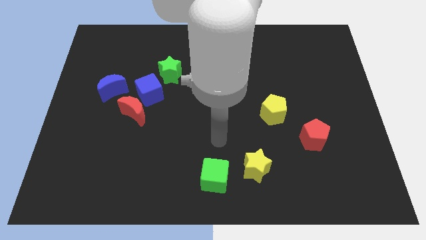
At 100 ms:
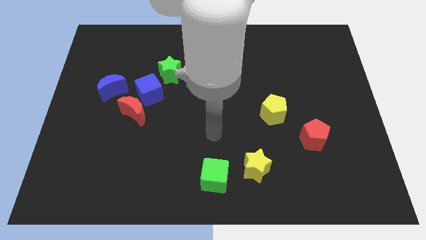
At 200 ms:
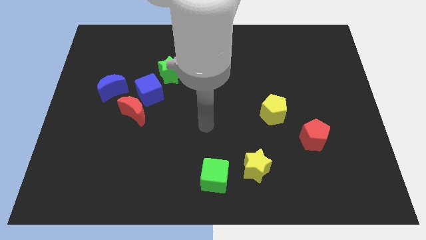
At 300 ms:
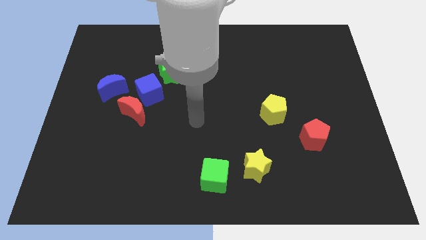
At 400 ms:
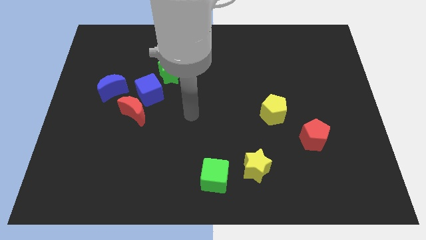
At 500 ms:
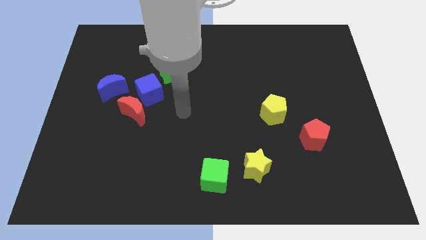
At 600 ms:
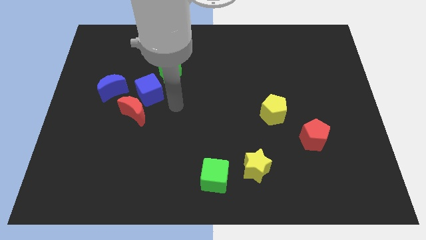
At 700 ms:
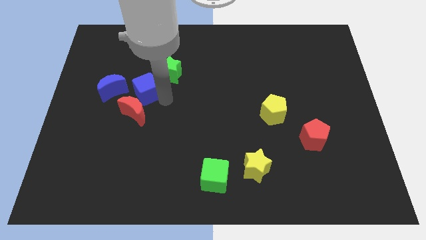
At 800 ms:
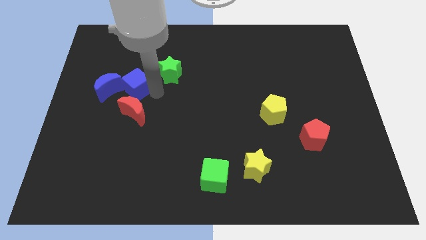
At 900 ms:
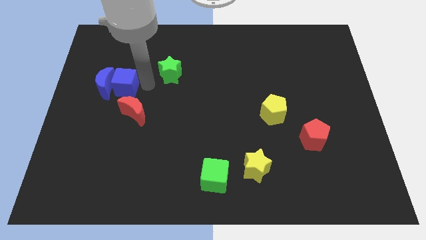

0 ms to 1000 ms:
move the green star away from the blue cube

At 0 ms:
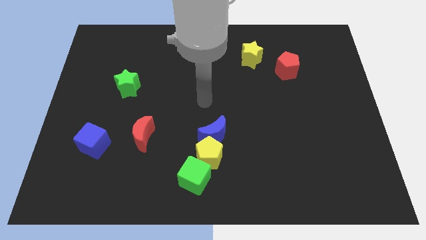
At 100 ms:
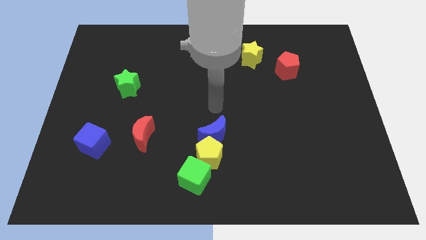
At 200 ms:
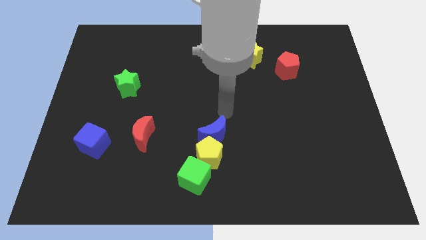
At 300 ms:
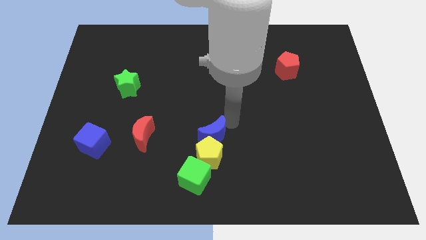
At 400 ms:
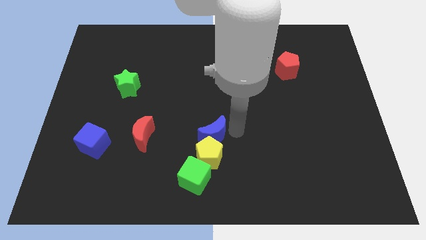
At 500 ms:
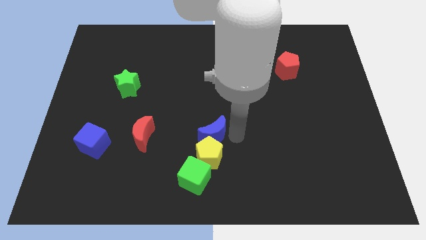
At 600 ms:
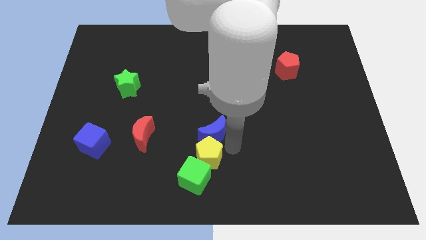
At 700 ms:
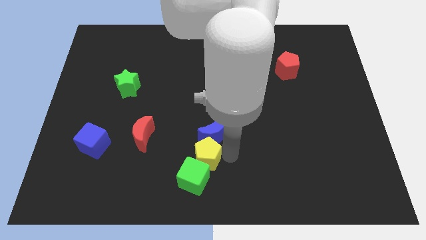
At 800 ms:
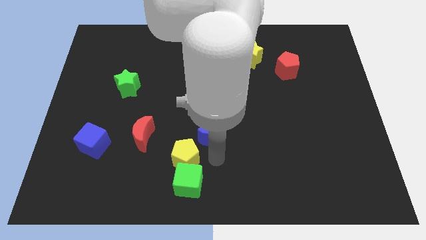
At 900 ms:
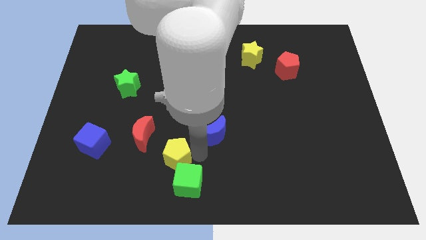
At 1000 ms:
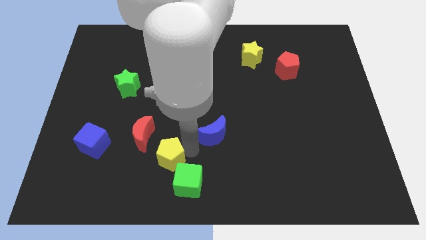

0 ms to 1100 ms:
pull the blue moon apart from the yellow pentagon

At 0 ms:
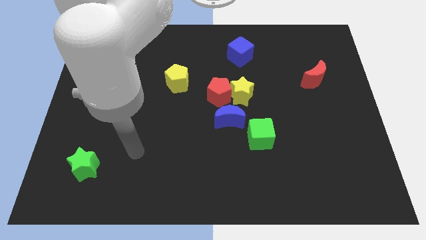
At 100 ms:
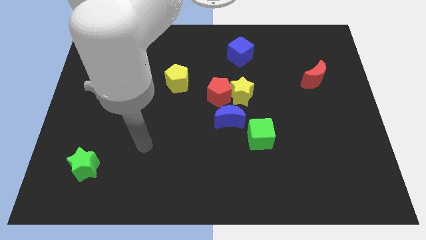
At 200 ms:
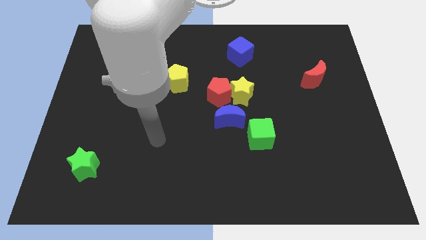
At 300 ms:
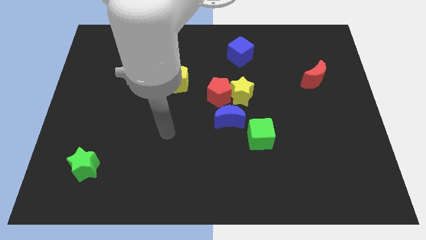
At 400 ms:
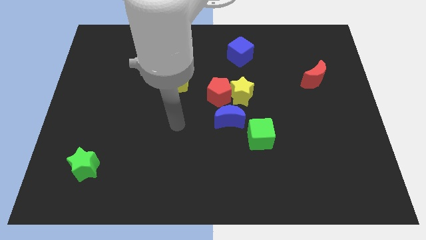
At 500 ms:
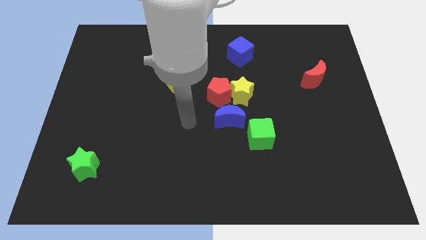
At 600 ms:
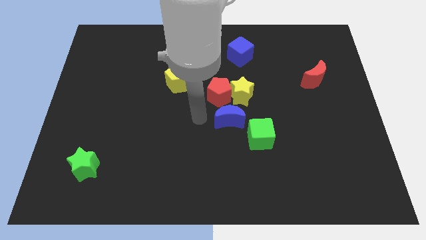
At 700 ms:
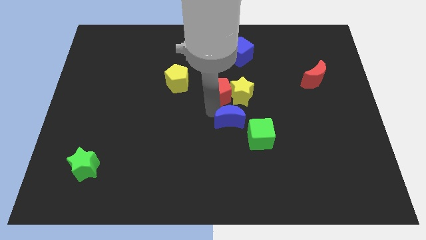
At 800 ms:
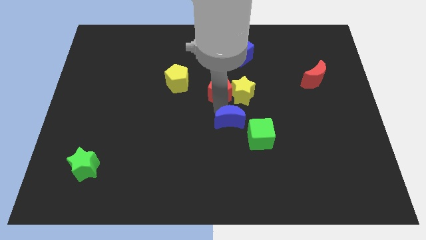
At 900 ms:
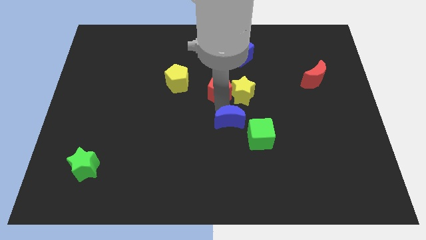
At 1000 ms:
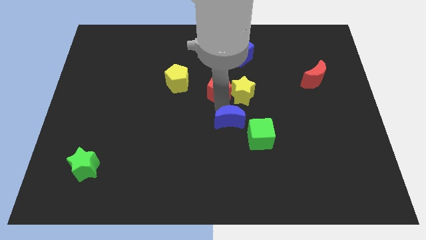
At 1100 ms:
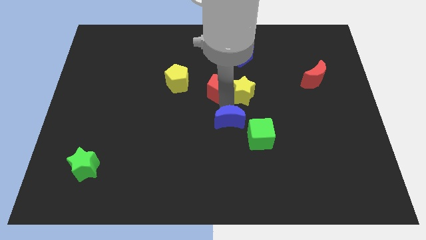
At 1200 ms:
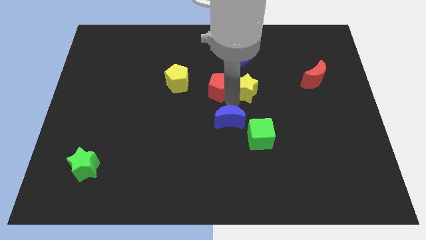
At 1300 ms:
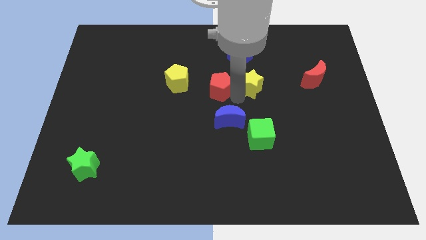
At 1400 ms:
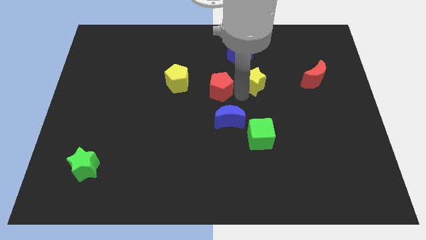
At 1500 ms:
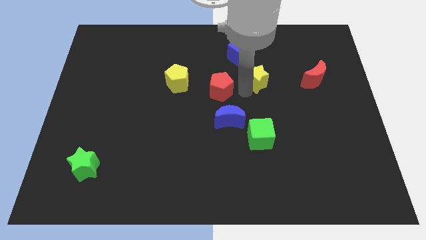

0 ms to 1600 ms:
move the yellow star away from the red pentagon and blue moon

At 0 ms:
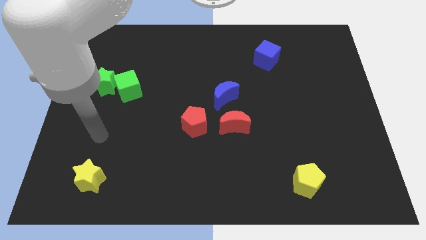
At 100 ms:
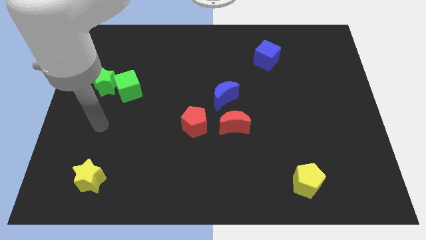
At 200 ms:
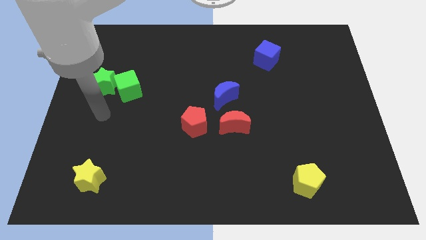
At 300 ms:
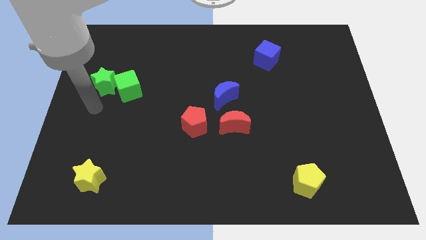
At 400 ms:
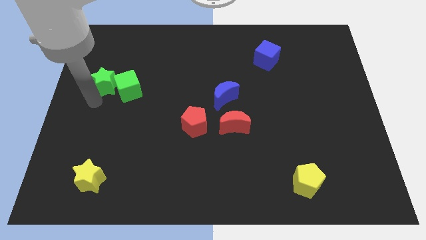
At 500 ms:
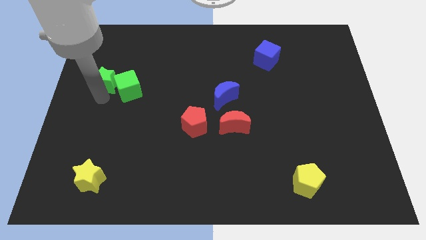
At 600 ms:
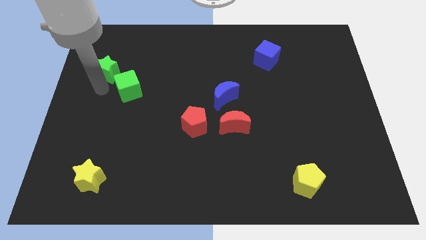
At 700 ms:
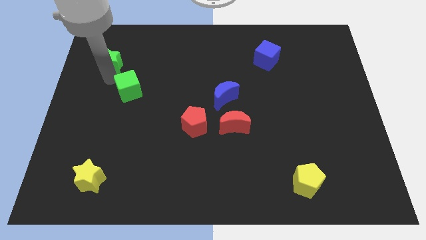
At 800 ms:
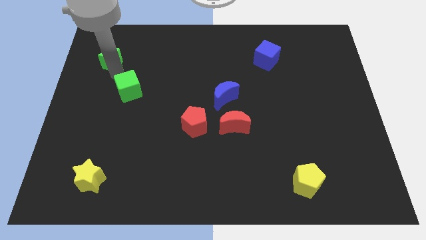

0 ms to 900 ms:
pull the green cube apart from the green star

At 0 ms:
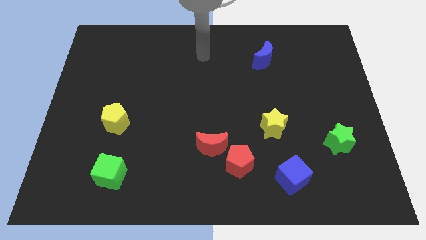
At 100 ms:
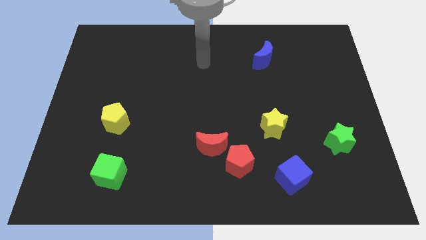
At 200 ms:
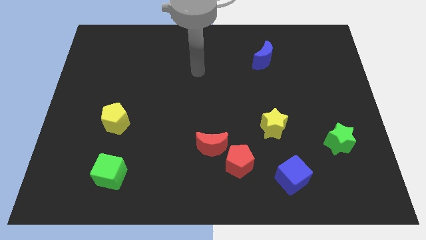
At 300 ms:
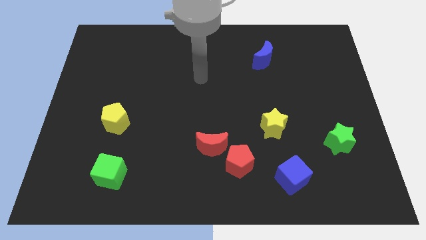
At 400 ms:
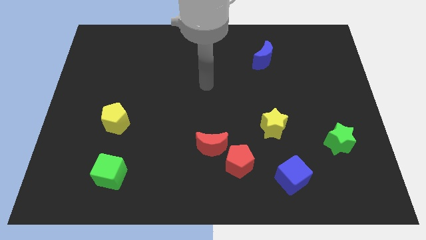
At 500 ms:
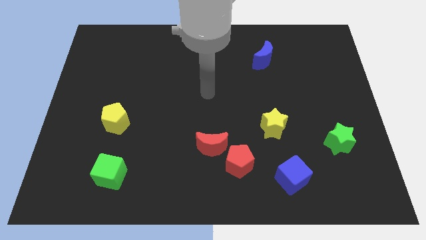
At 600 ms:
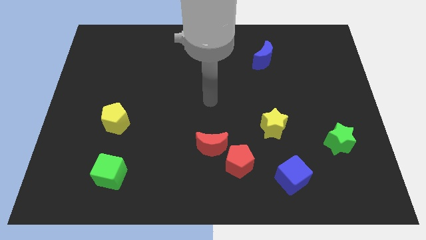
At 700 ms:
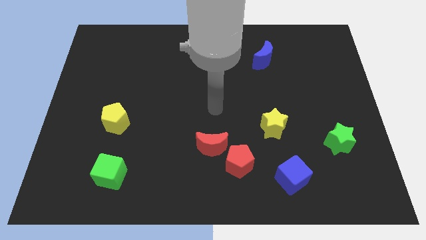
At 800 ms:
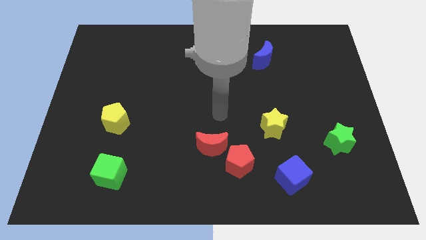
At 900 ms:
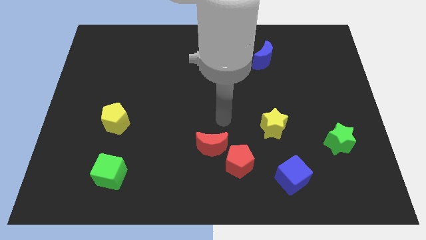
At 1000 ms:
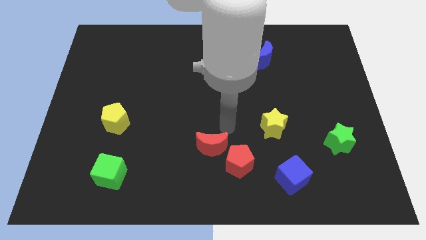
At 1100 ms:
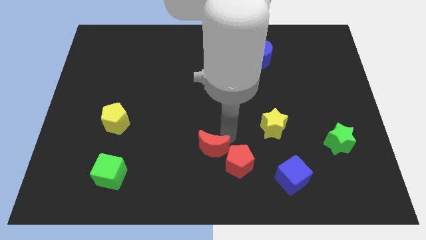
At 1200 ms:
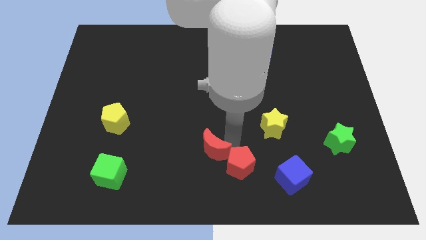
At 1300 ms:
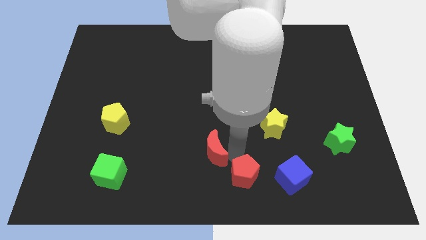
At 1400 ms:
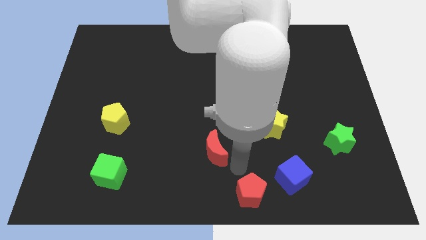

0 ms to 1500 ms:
pull the red moon apart from the red pentagon

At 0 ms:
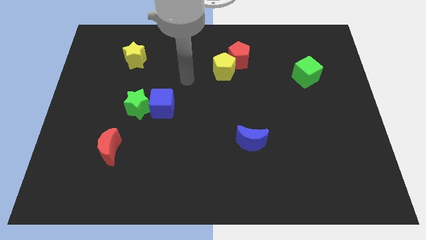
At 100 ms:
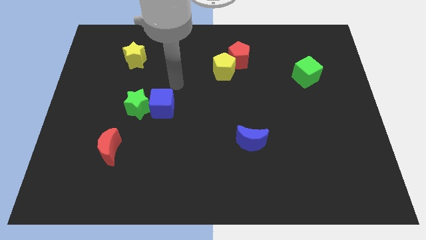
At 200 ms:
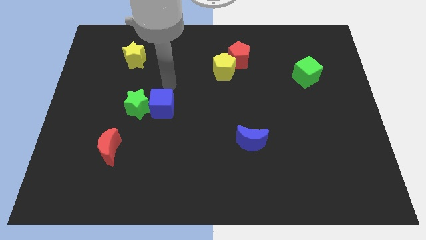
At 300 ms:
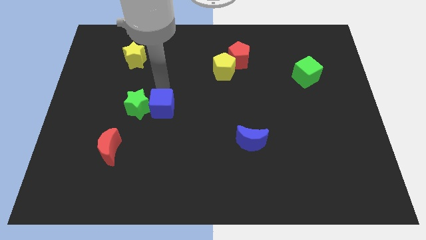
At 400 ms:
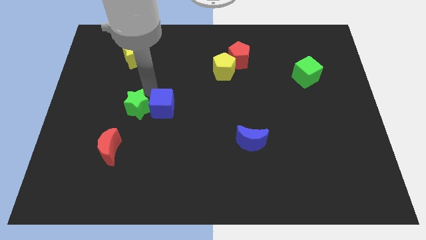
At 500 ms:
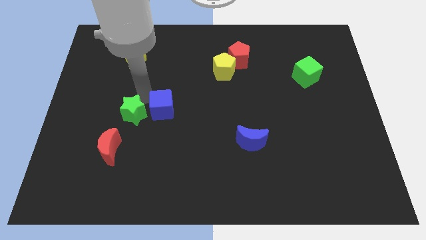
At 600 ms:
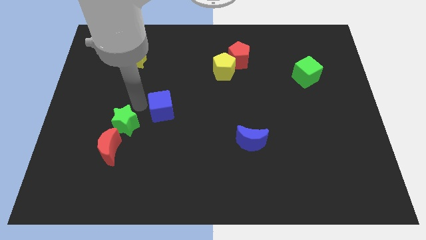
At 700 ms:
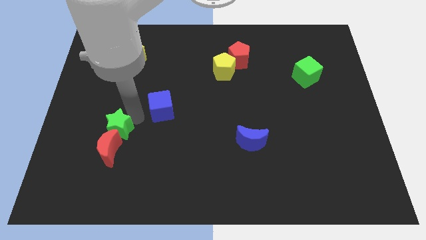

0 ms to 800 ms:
separate the blue cube from the green star

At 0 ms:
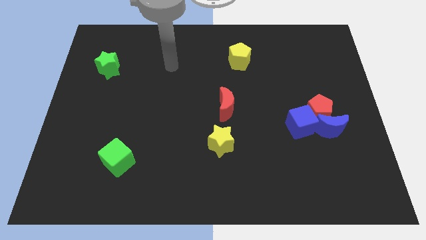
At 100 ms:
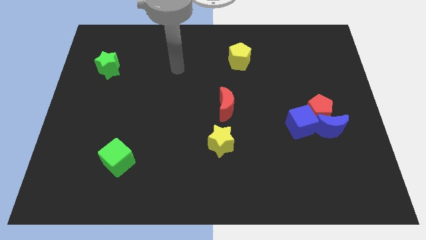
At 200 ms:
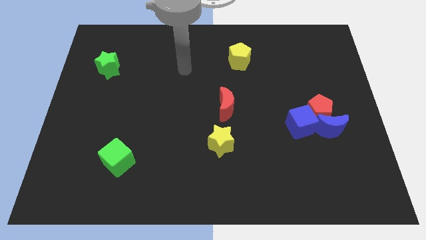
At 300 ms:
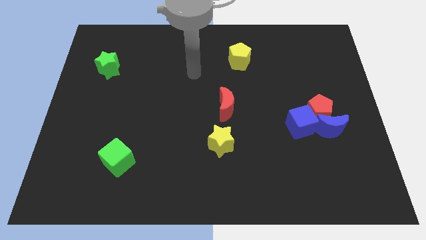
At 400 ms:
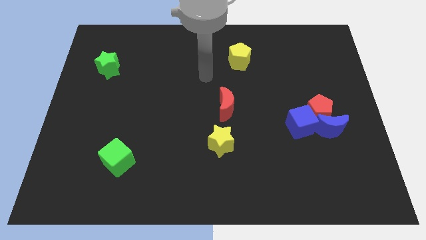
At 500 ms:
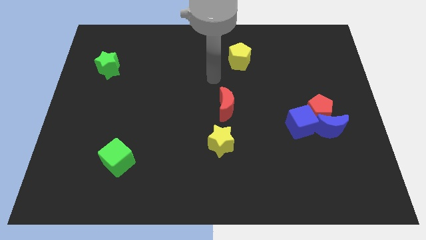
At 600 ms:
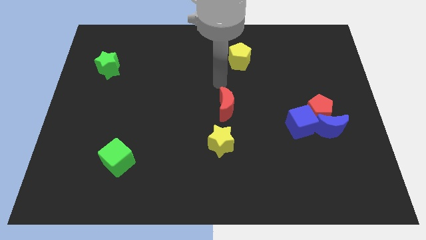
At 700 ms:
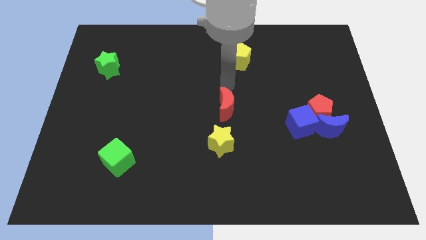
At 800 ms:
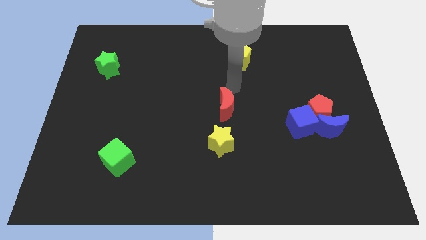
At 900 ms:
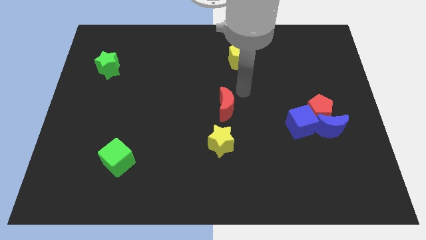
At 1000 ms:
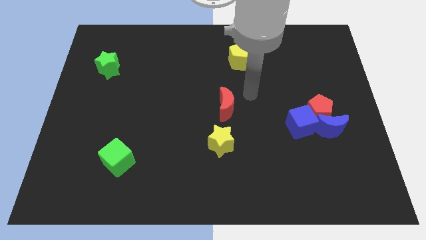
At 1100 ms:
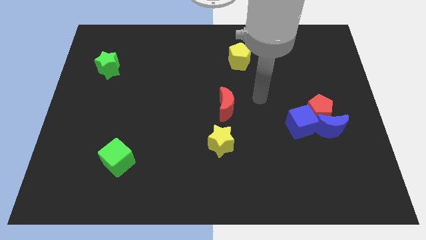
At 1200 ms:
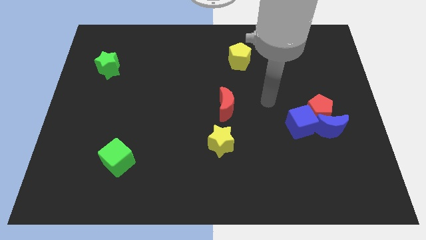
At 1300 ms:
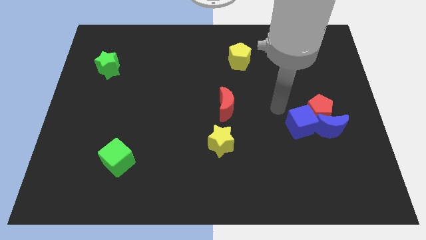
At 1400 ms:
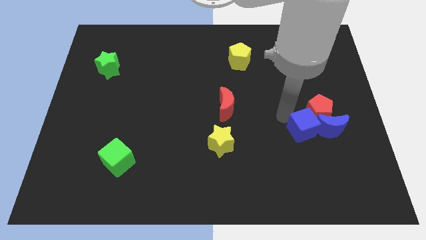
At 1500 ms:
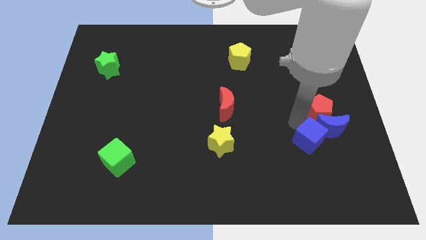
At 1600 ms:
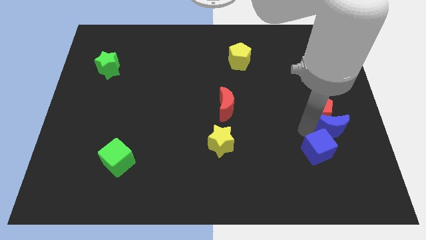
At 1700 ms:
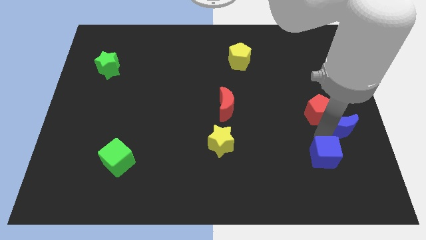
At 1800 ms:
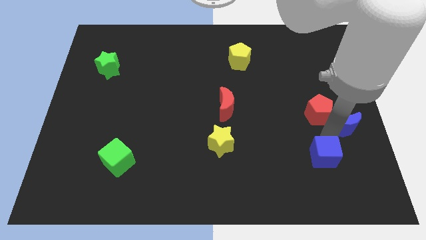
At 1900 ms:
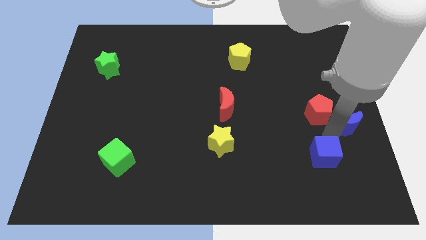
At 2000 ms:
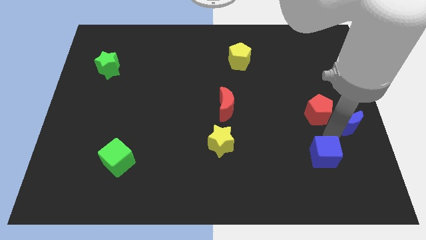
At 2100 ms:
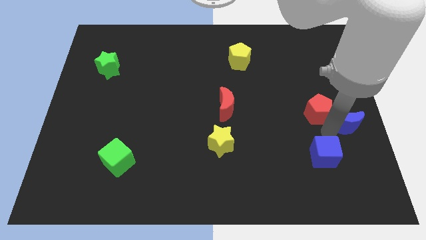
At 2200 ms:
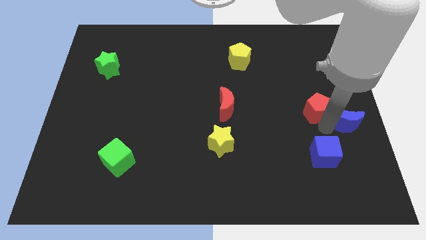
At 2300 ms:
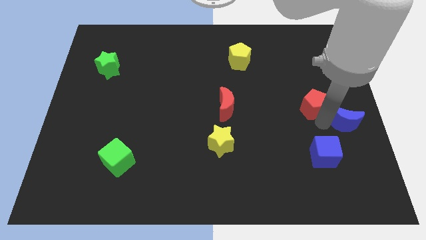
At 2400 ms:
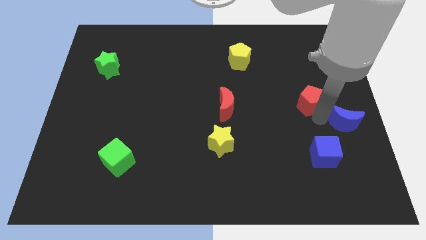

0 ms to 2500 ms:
pull the red pentagon apart from the blue moon and blue cube
